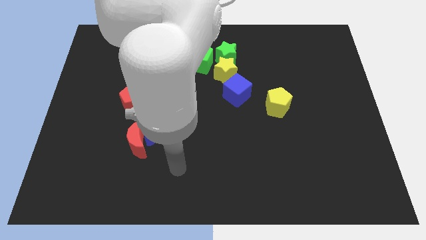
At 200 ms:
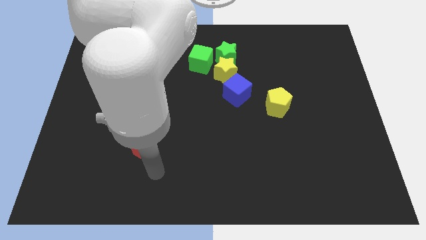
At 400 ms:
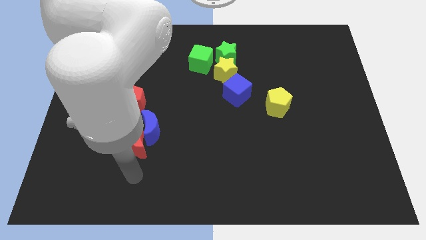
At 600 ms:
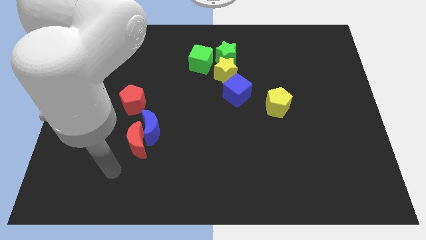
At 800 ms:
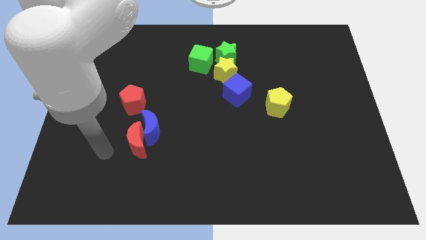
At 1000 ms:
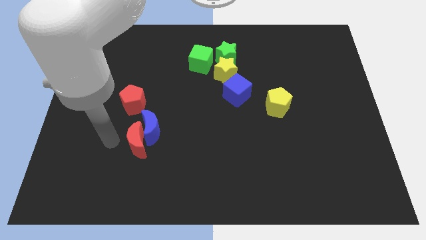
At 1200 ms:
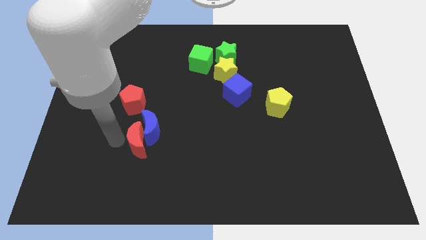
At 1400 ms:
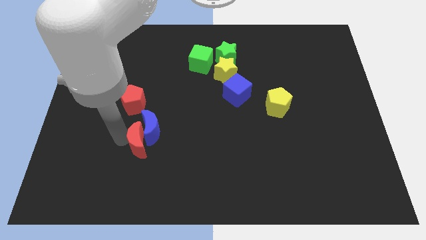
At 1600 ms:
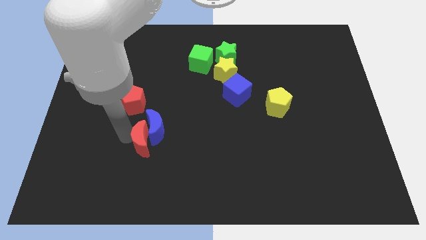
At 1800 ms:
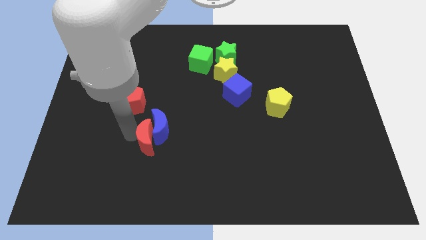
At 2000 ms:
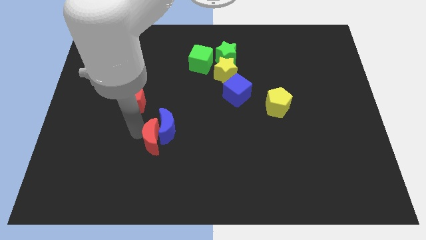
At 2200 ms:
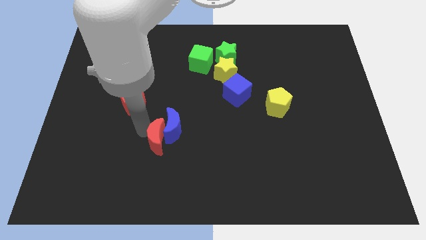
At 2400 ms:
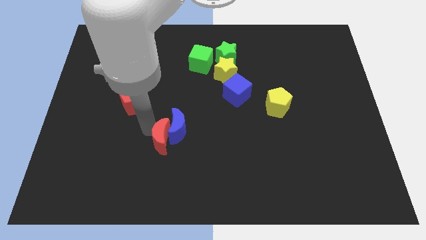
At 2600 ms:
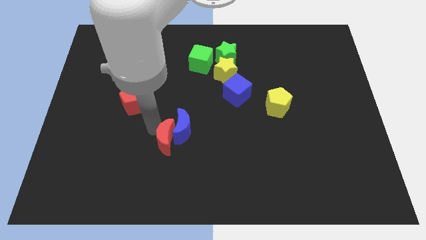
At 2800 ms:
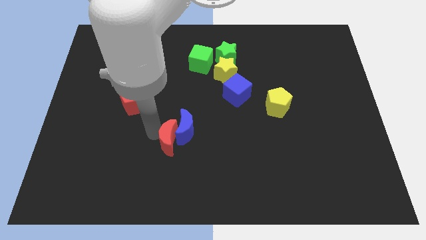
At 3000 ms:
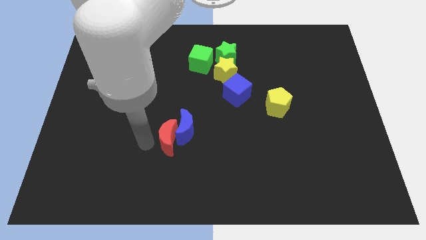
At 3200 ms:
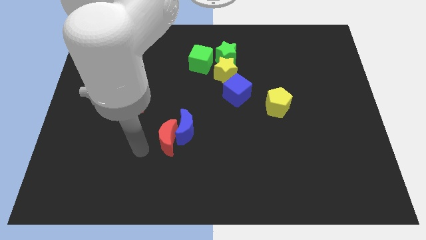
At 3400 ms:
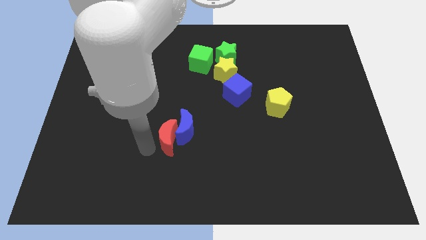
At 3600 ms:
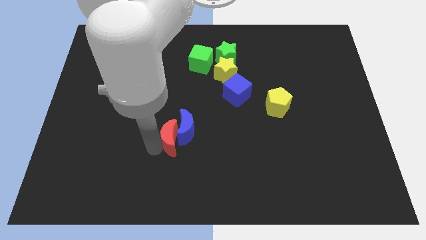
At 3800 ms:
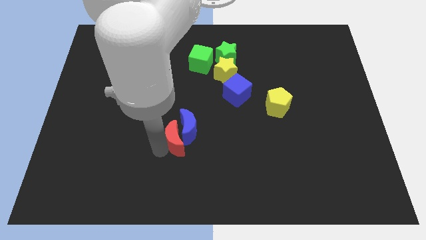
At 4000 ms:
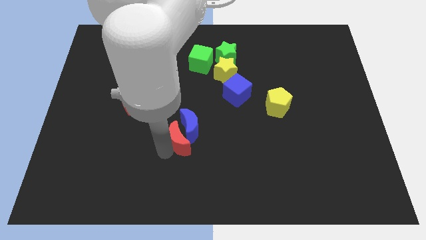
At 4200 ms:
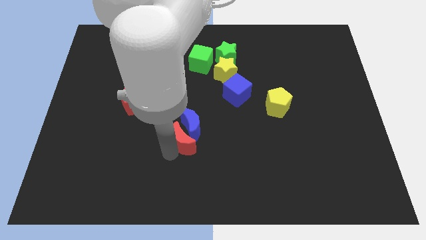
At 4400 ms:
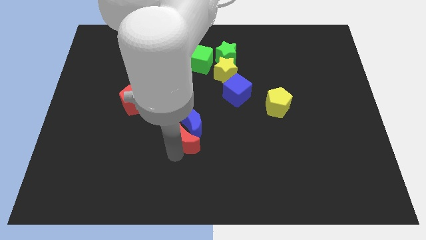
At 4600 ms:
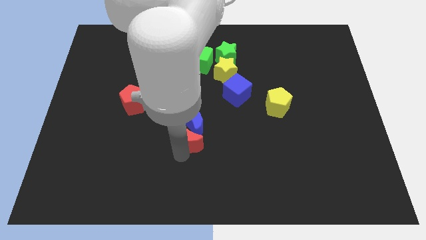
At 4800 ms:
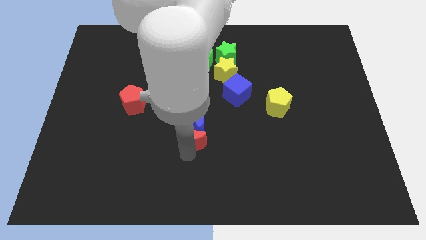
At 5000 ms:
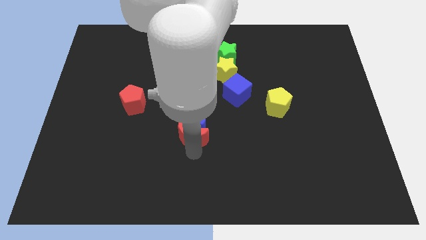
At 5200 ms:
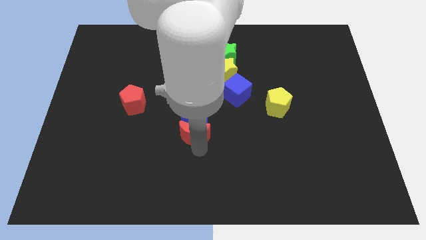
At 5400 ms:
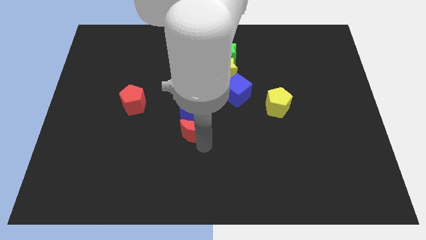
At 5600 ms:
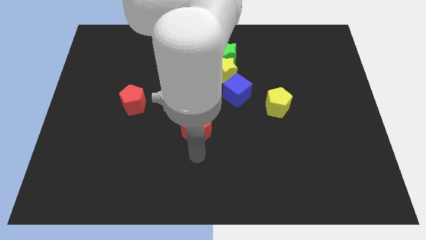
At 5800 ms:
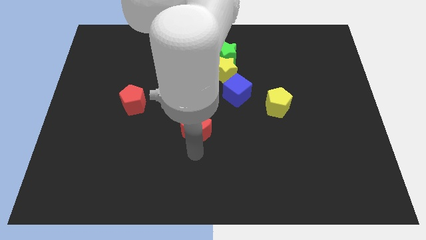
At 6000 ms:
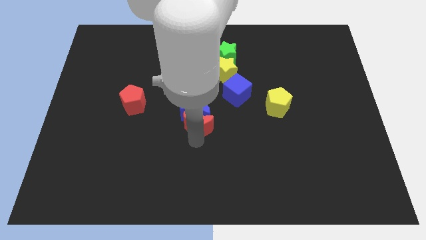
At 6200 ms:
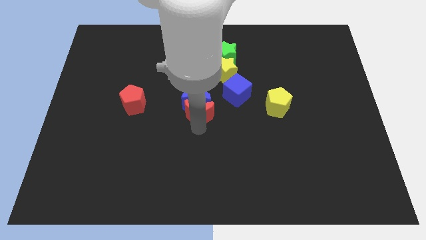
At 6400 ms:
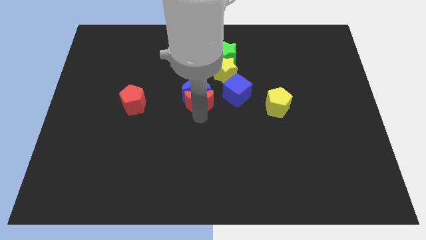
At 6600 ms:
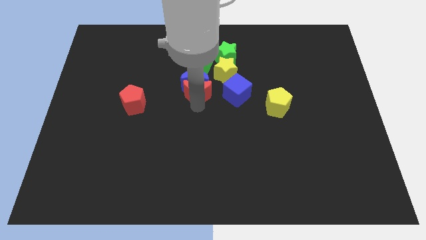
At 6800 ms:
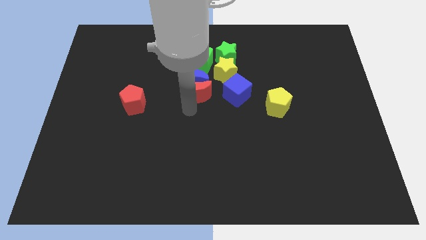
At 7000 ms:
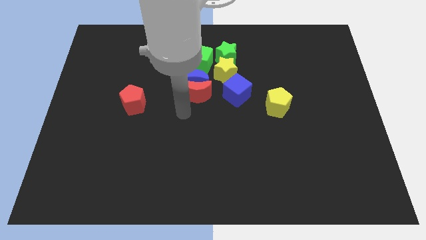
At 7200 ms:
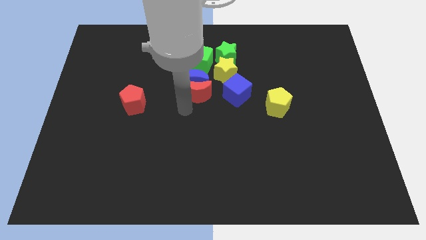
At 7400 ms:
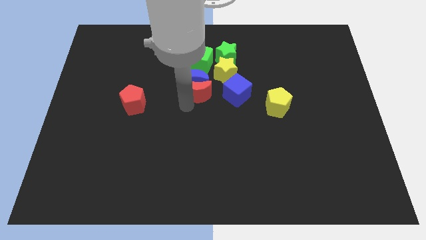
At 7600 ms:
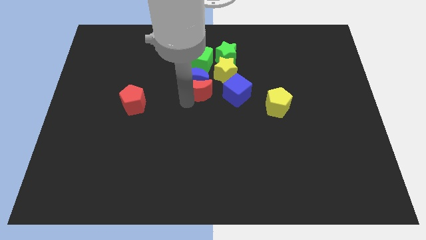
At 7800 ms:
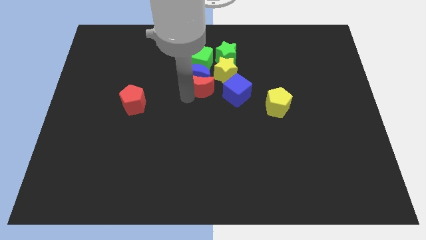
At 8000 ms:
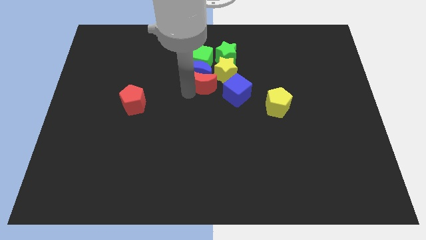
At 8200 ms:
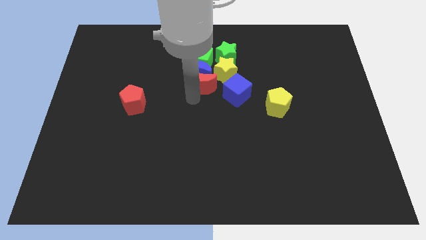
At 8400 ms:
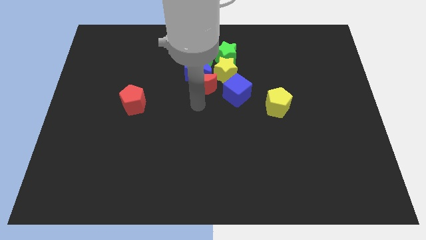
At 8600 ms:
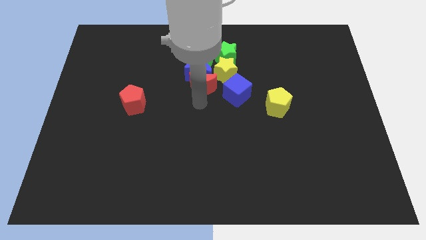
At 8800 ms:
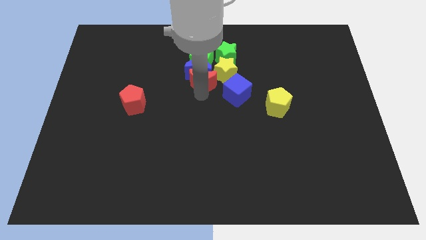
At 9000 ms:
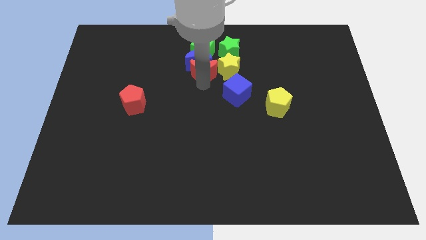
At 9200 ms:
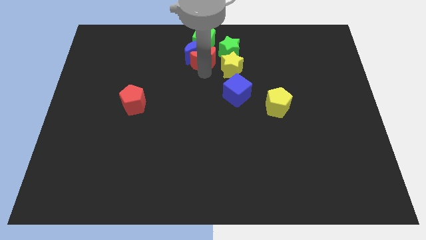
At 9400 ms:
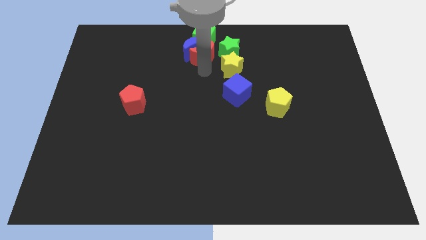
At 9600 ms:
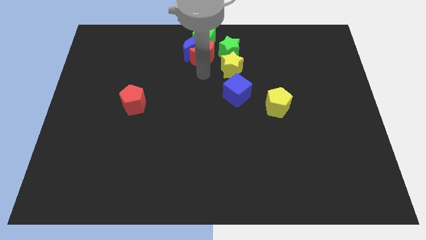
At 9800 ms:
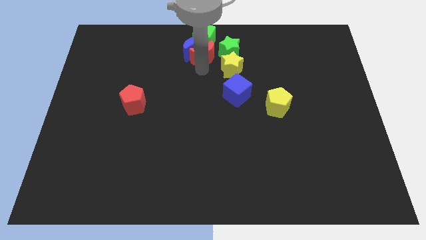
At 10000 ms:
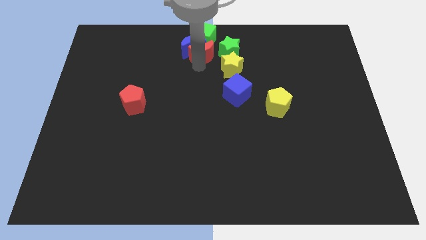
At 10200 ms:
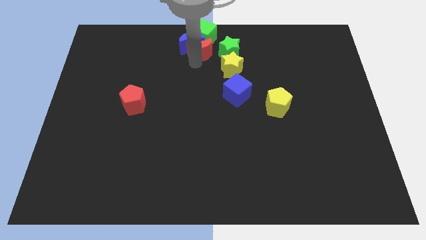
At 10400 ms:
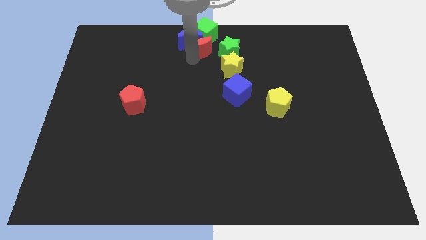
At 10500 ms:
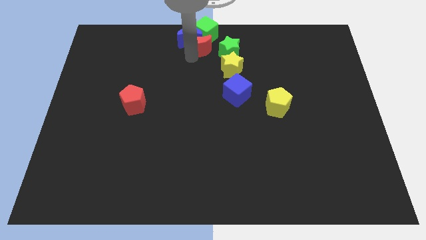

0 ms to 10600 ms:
push the red moon to the green cube

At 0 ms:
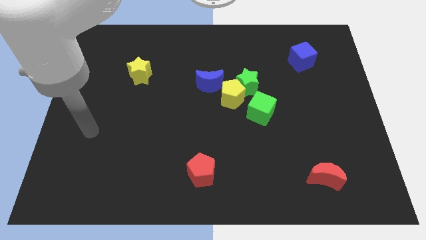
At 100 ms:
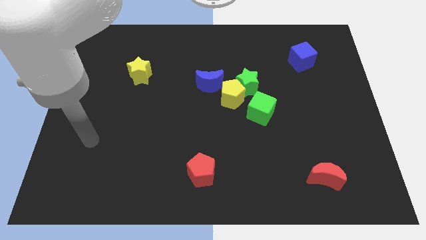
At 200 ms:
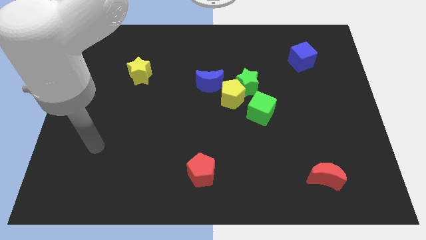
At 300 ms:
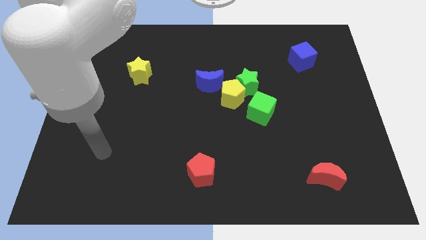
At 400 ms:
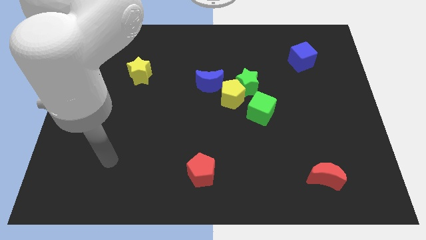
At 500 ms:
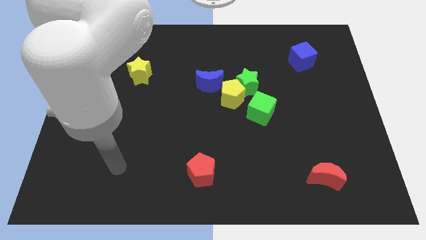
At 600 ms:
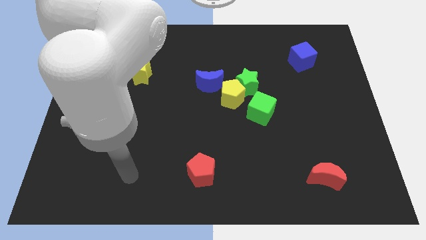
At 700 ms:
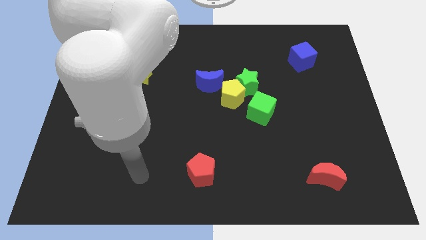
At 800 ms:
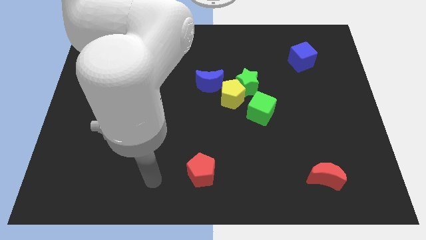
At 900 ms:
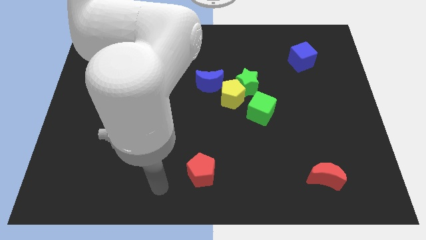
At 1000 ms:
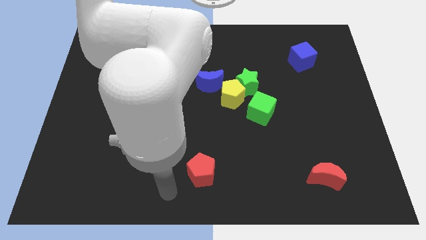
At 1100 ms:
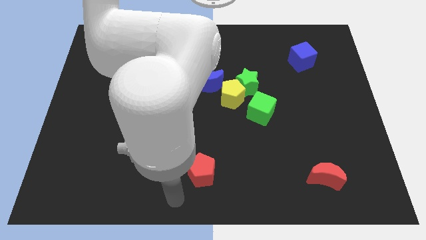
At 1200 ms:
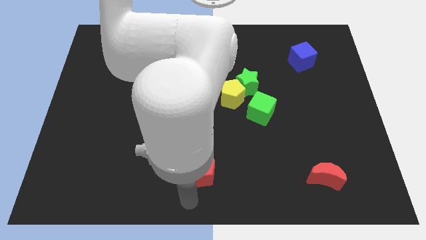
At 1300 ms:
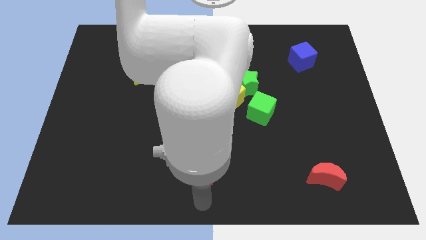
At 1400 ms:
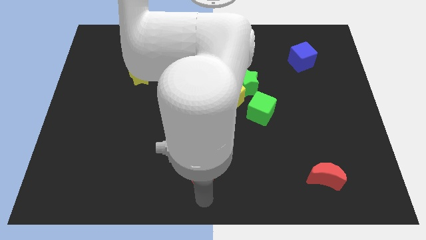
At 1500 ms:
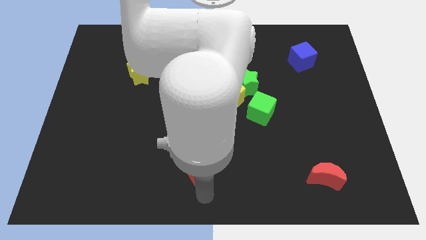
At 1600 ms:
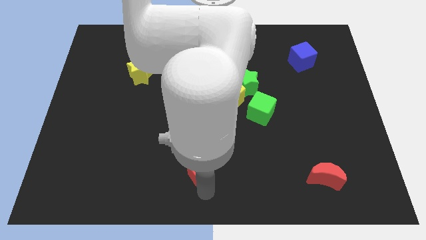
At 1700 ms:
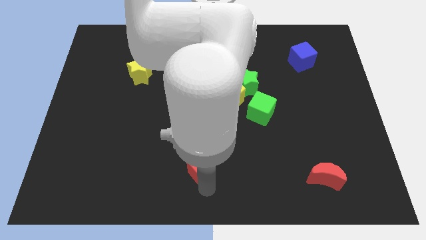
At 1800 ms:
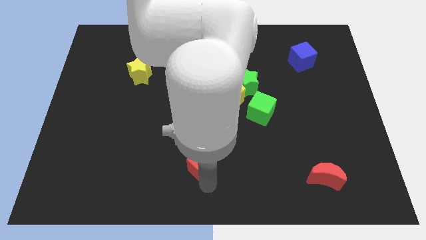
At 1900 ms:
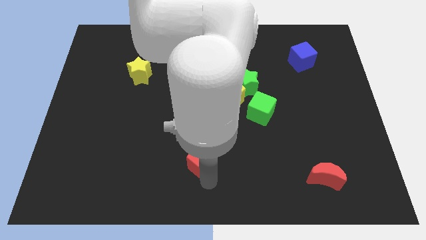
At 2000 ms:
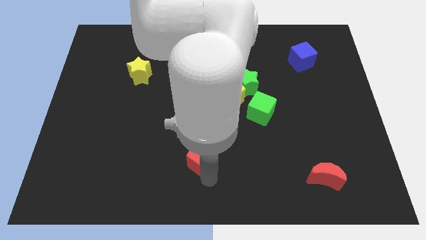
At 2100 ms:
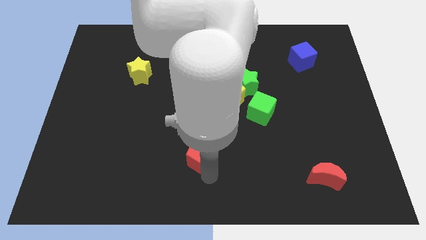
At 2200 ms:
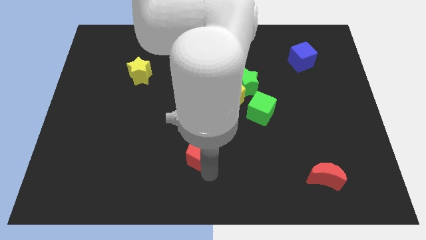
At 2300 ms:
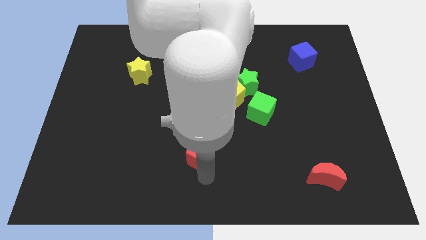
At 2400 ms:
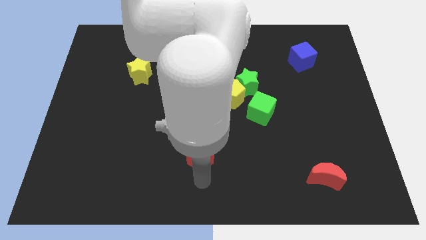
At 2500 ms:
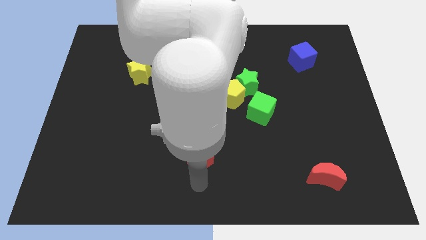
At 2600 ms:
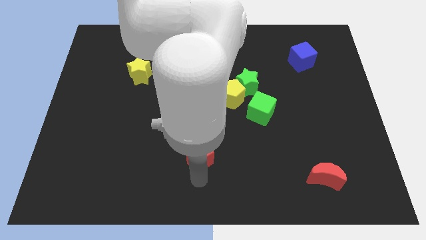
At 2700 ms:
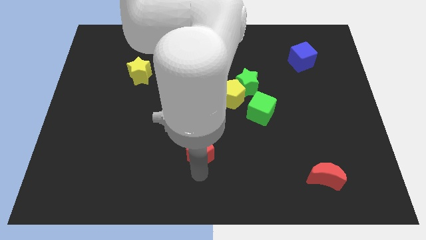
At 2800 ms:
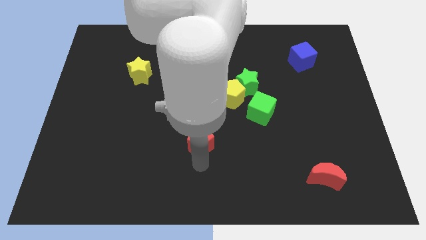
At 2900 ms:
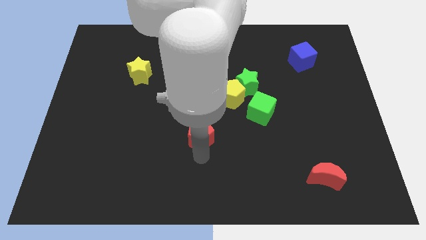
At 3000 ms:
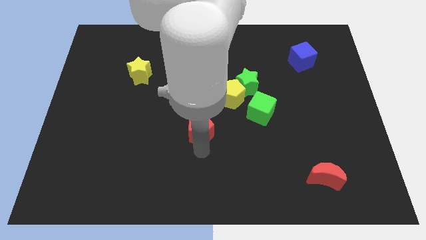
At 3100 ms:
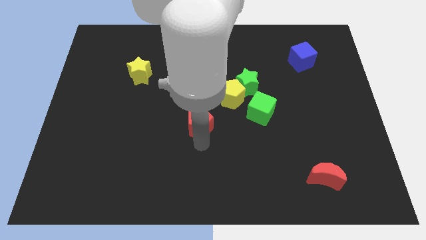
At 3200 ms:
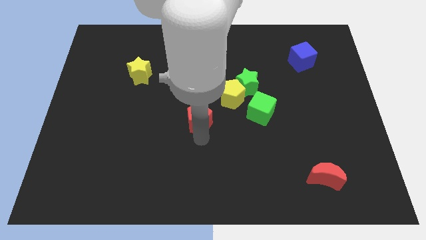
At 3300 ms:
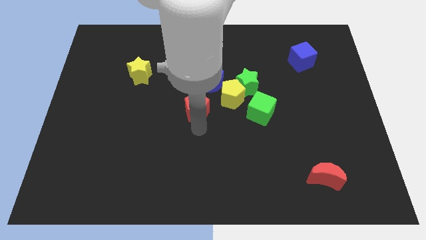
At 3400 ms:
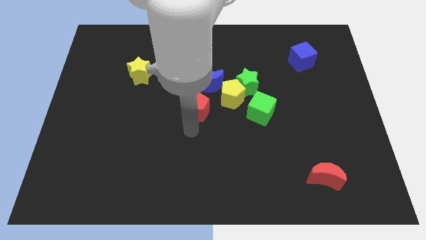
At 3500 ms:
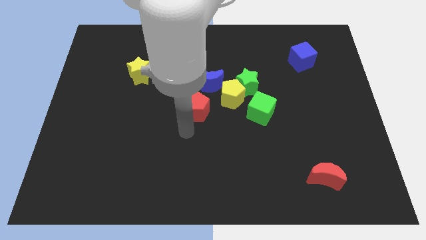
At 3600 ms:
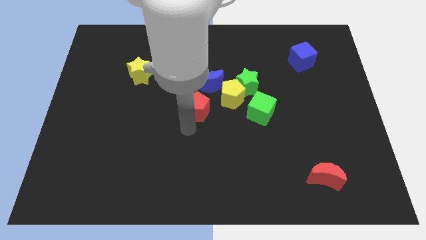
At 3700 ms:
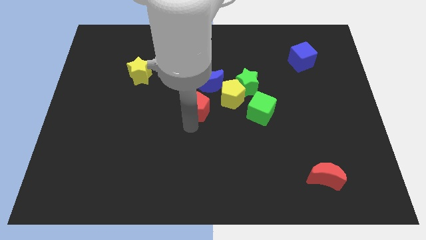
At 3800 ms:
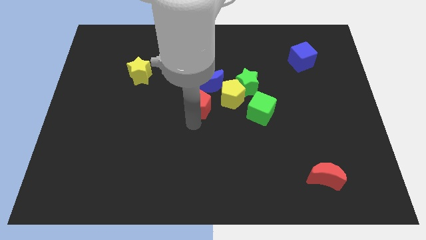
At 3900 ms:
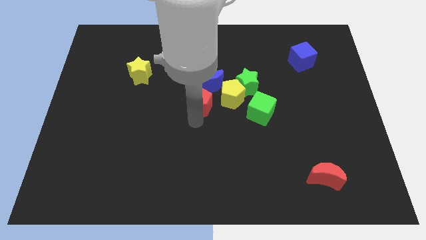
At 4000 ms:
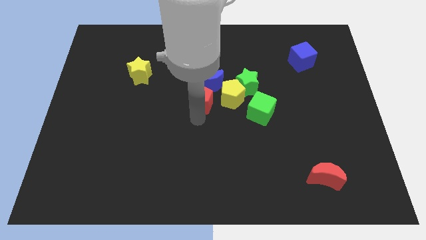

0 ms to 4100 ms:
slide the red pentagon towards the blue moon
